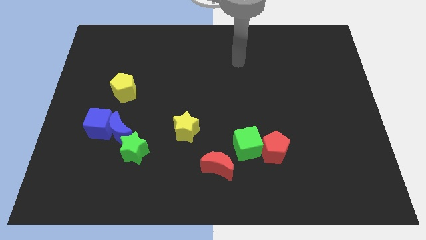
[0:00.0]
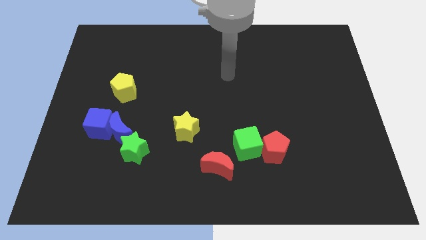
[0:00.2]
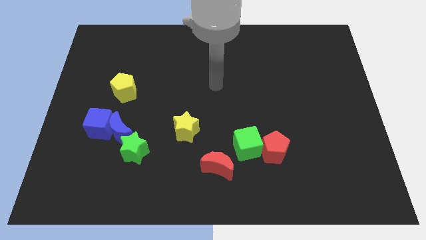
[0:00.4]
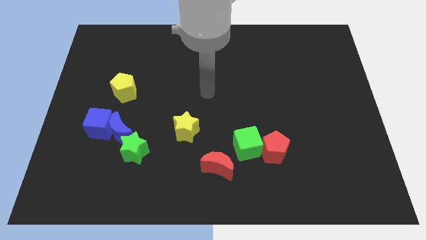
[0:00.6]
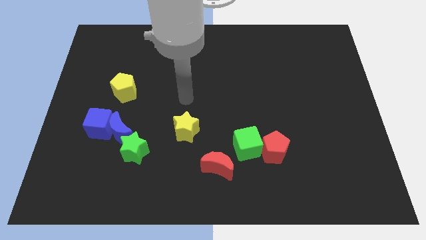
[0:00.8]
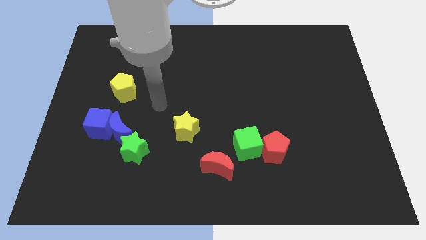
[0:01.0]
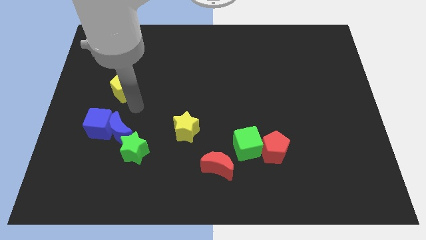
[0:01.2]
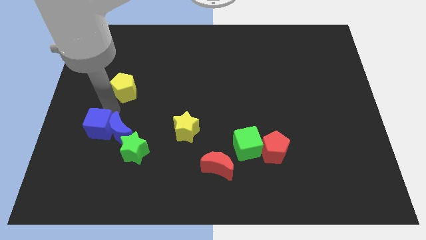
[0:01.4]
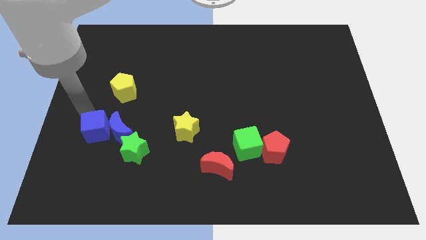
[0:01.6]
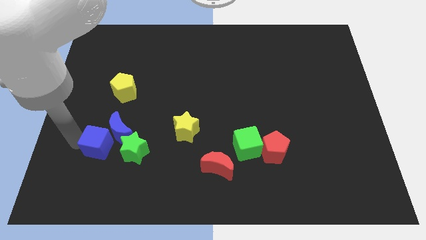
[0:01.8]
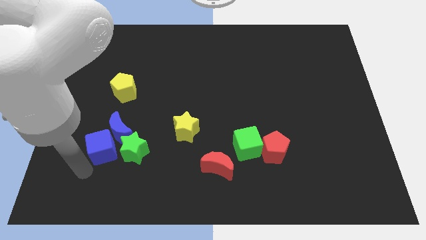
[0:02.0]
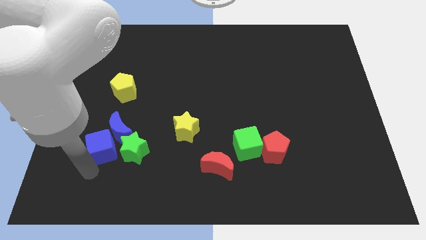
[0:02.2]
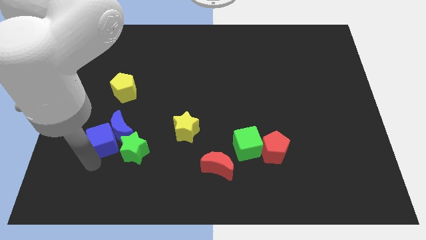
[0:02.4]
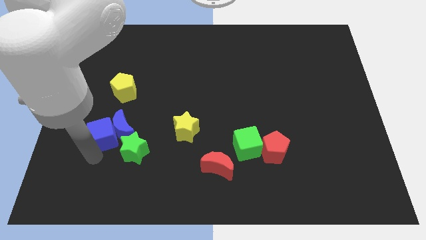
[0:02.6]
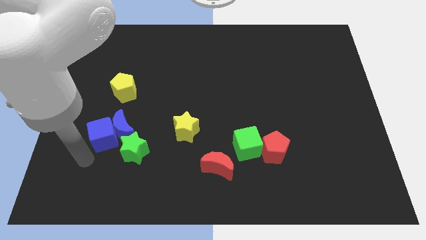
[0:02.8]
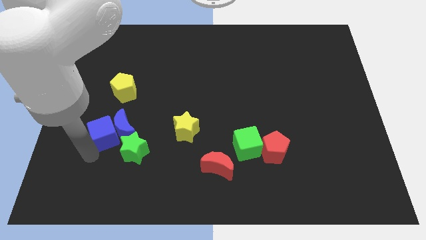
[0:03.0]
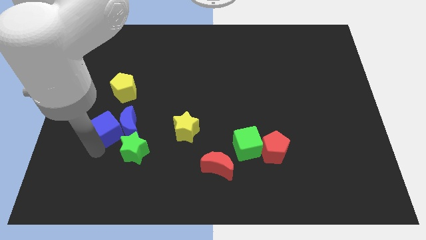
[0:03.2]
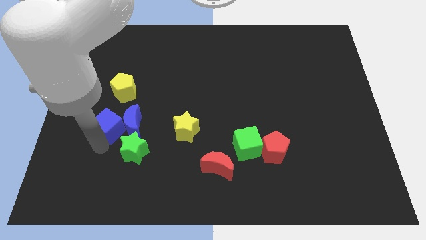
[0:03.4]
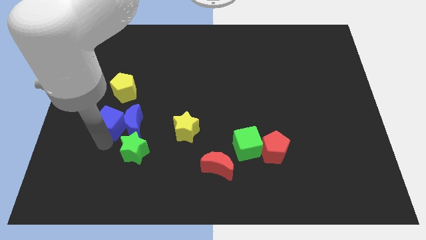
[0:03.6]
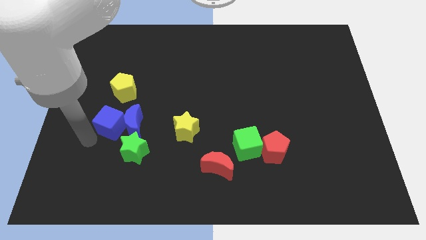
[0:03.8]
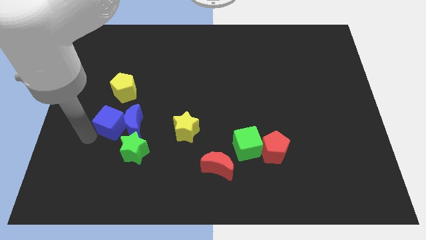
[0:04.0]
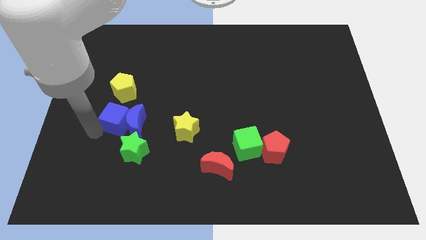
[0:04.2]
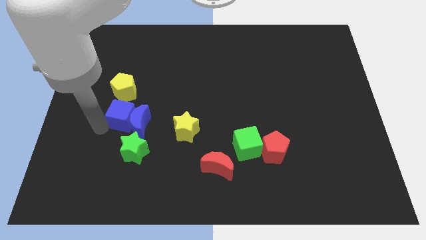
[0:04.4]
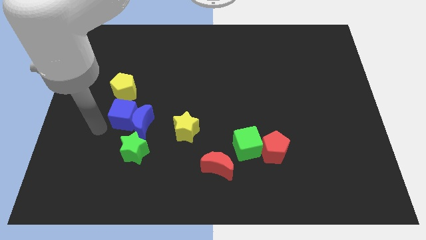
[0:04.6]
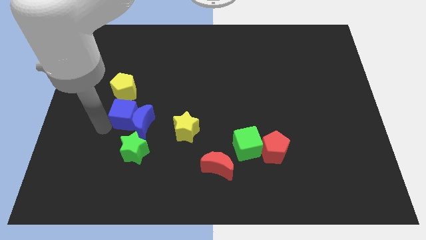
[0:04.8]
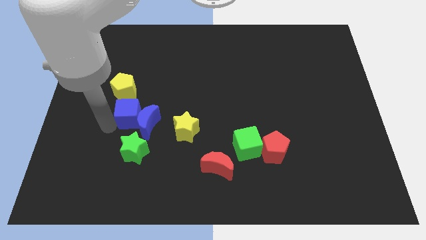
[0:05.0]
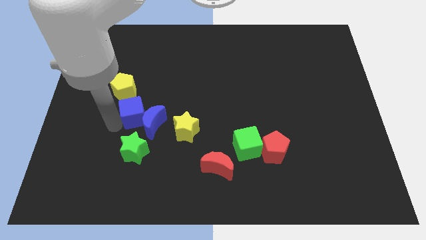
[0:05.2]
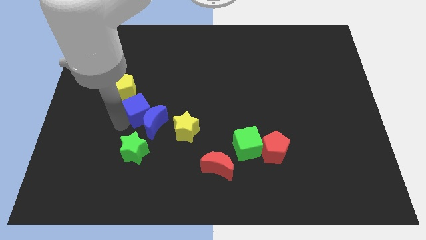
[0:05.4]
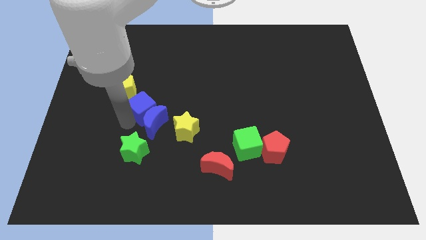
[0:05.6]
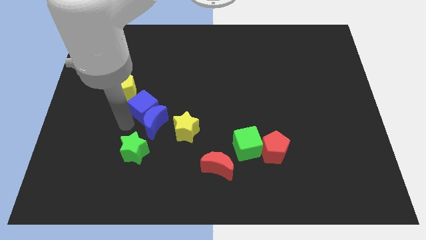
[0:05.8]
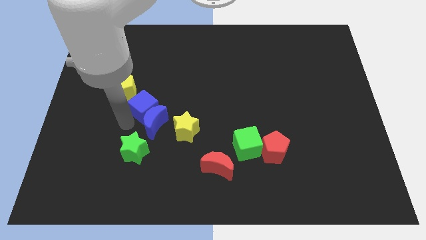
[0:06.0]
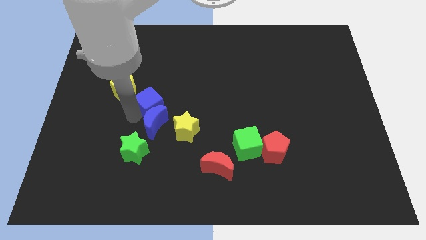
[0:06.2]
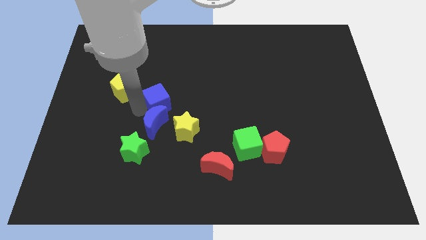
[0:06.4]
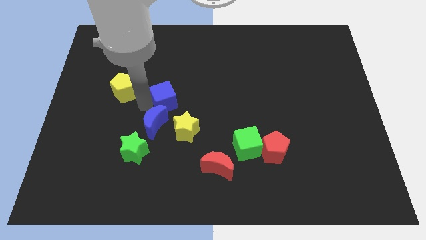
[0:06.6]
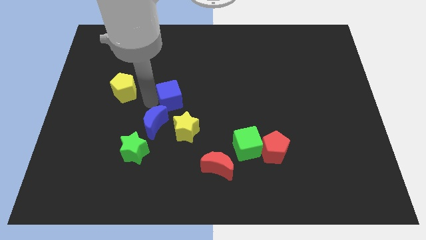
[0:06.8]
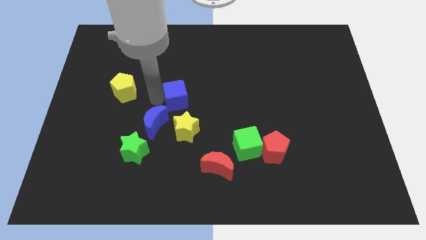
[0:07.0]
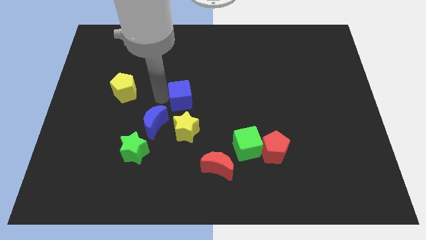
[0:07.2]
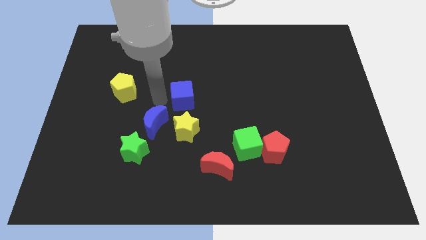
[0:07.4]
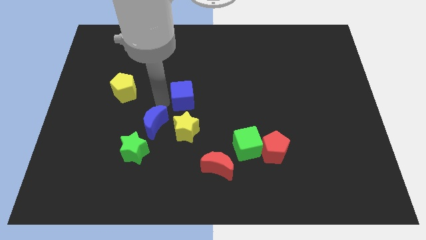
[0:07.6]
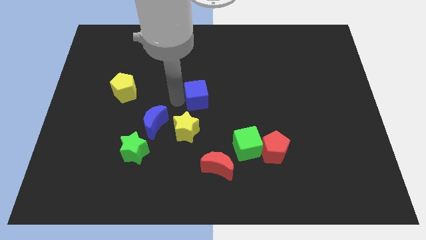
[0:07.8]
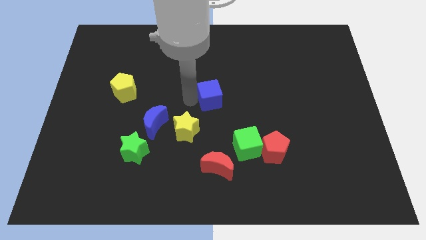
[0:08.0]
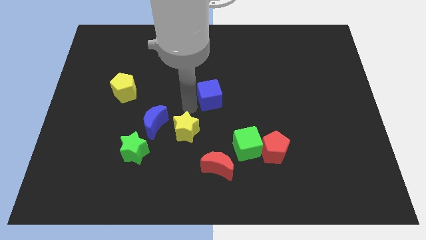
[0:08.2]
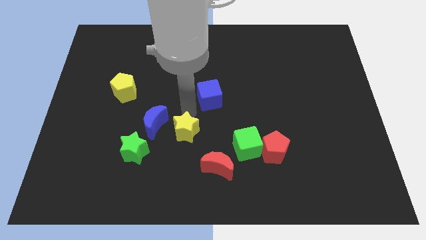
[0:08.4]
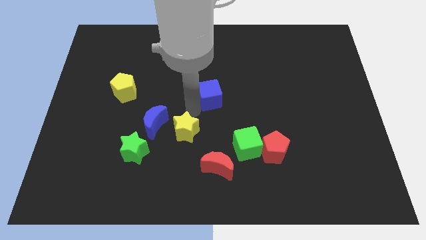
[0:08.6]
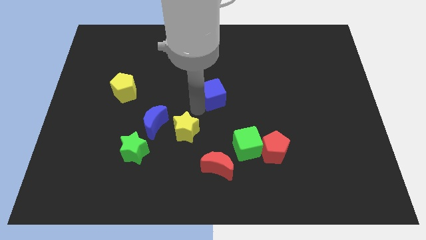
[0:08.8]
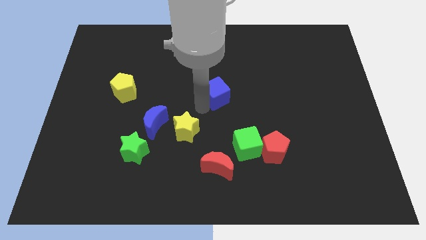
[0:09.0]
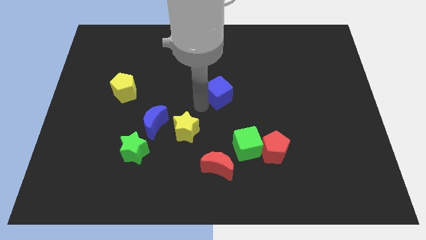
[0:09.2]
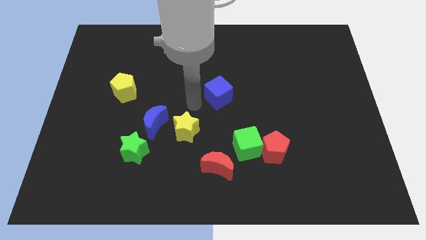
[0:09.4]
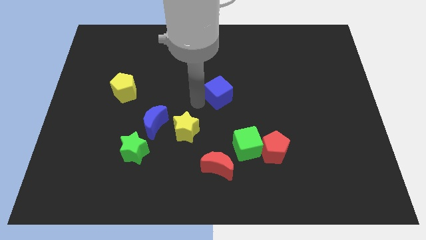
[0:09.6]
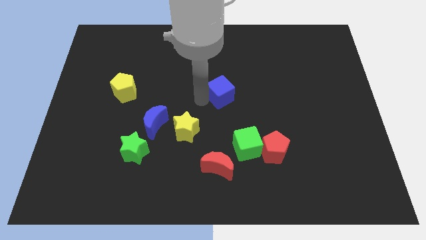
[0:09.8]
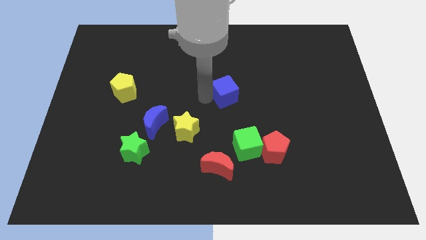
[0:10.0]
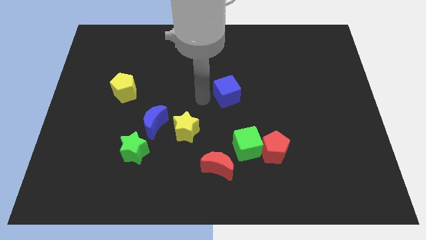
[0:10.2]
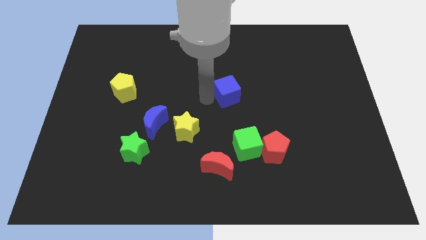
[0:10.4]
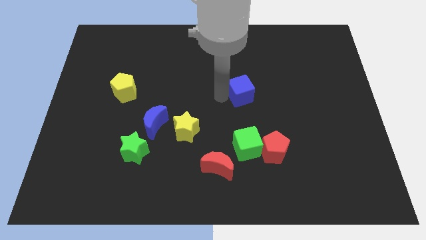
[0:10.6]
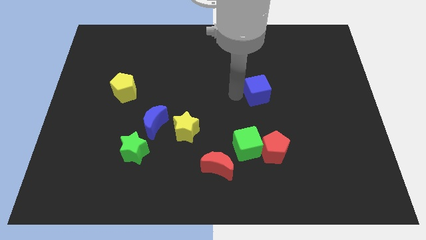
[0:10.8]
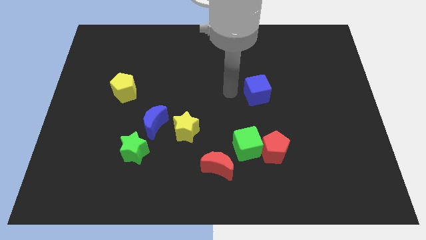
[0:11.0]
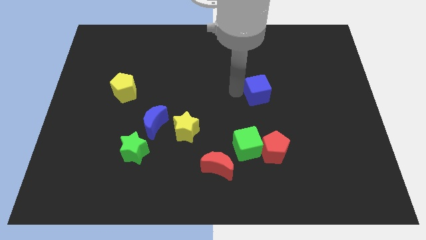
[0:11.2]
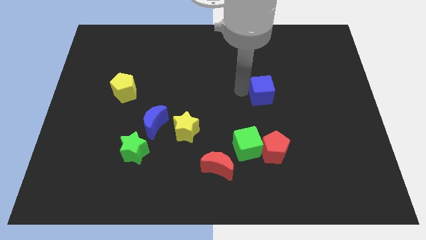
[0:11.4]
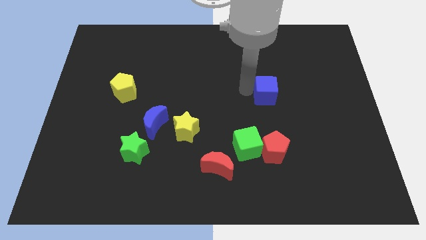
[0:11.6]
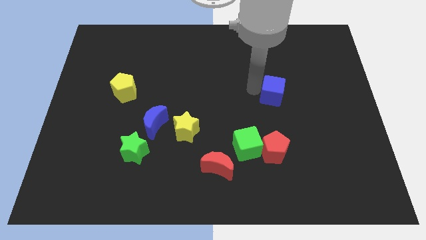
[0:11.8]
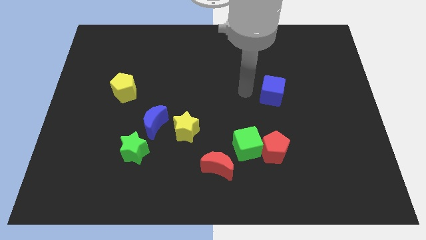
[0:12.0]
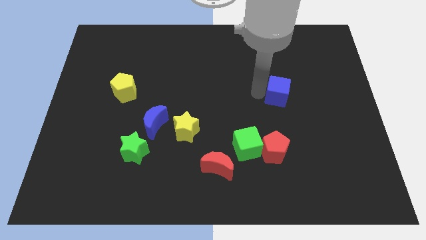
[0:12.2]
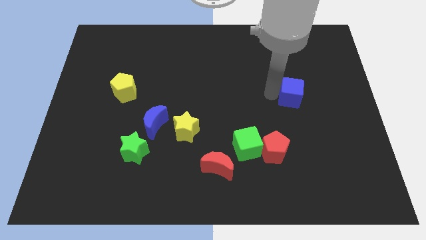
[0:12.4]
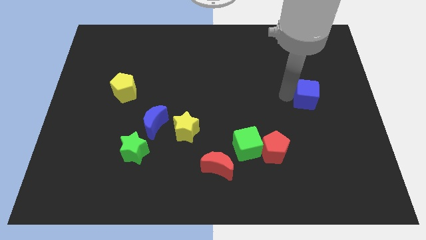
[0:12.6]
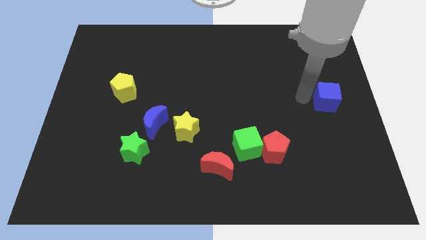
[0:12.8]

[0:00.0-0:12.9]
push the blue cube to the center right

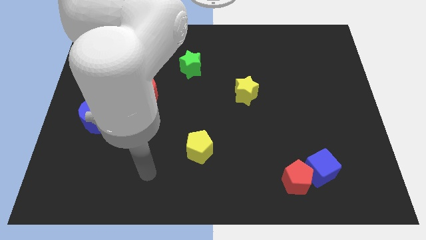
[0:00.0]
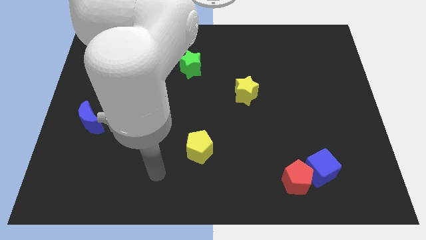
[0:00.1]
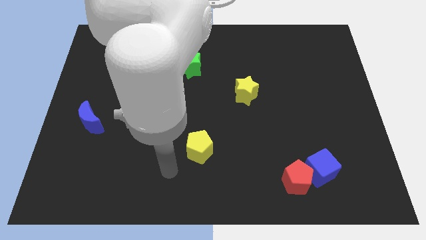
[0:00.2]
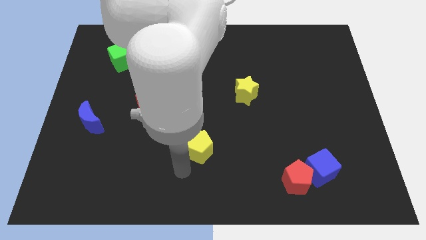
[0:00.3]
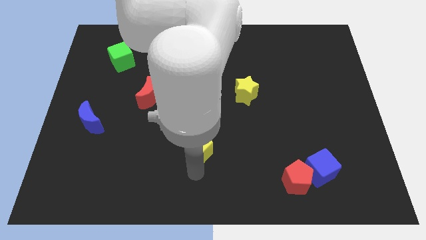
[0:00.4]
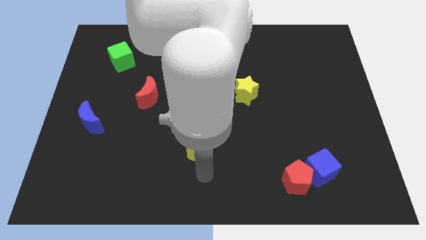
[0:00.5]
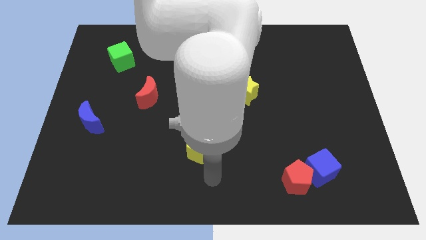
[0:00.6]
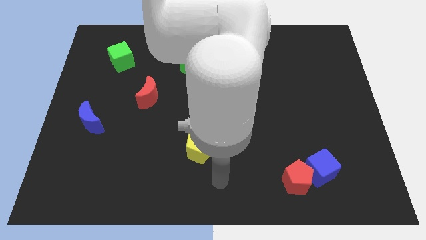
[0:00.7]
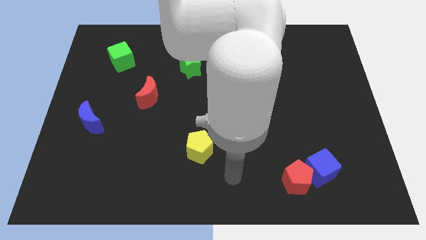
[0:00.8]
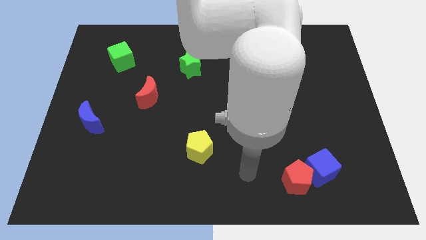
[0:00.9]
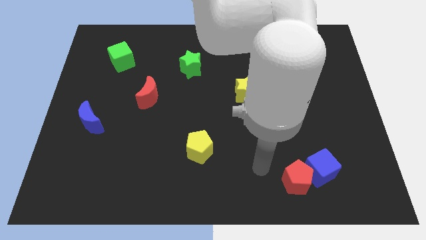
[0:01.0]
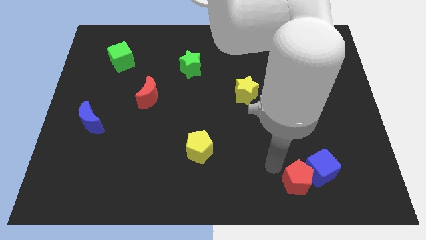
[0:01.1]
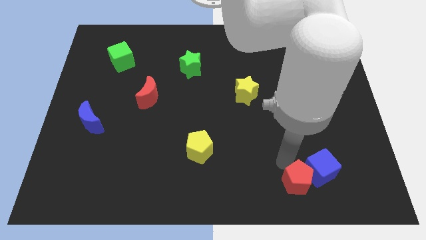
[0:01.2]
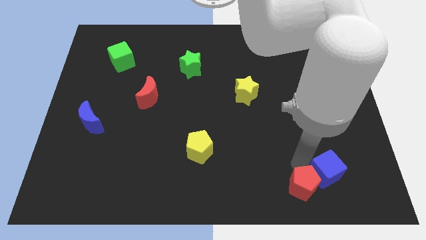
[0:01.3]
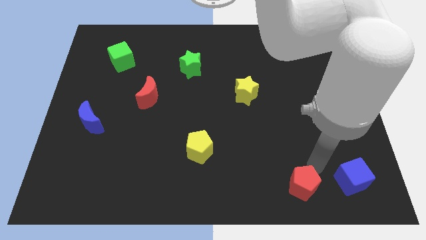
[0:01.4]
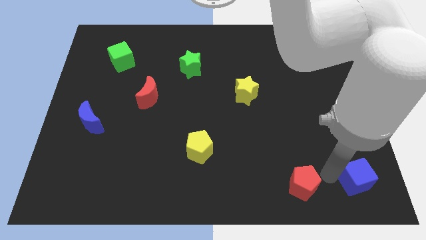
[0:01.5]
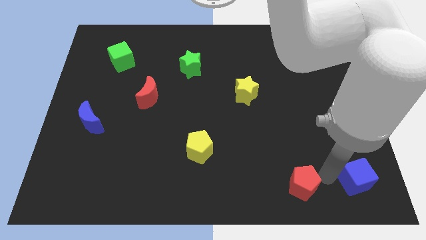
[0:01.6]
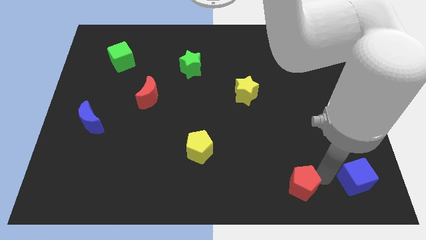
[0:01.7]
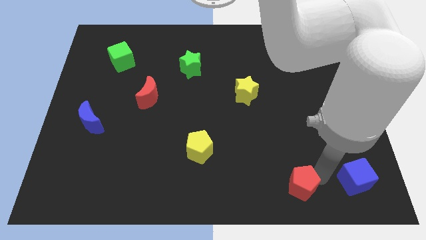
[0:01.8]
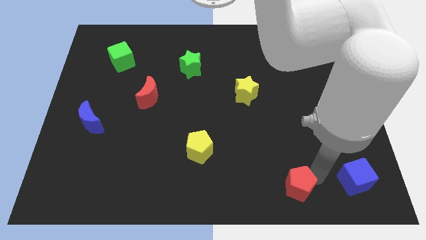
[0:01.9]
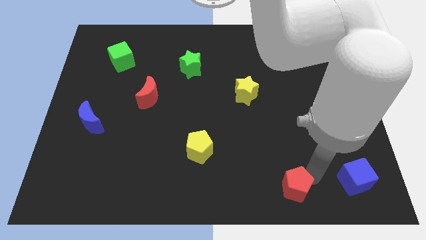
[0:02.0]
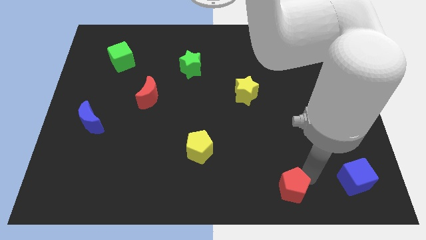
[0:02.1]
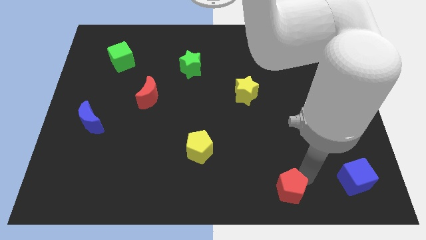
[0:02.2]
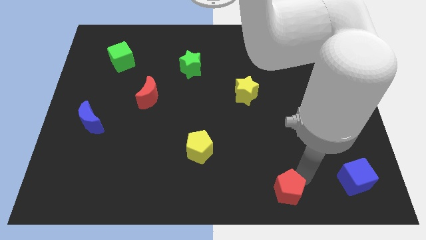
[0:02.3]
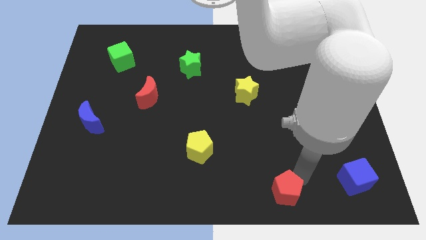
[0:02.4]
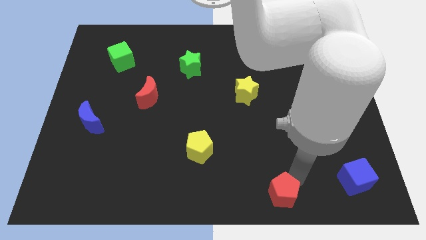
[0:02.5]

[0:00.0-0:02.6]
move the red pentagon to the bottom
